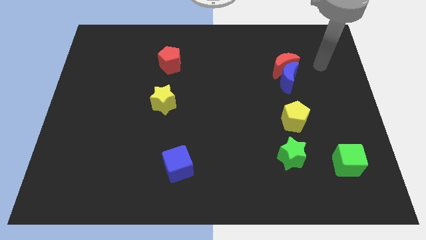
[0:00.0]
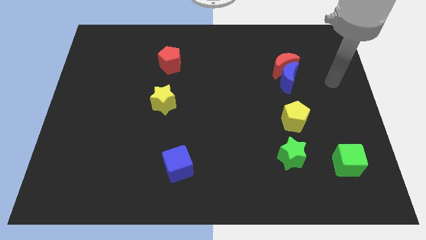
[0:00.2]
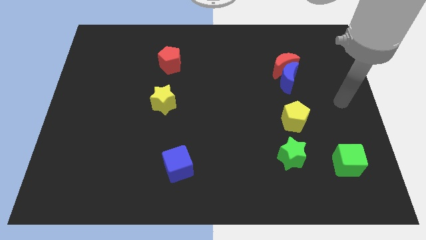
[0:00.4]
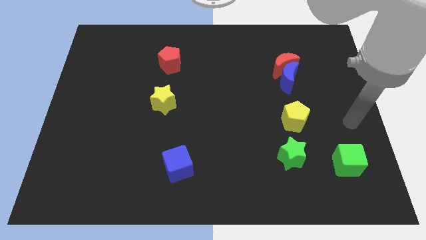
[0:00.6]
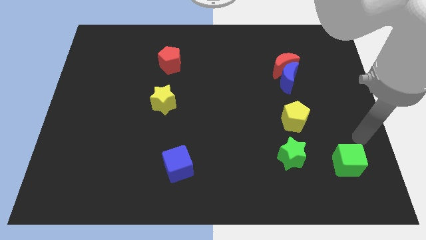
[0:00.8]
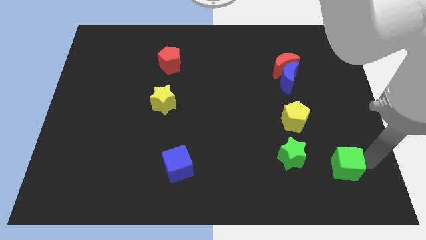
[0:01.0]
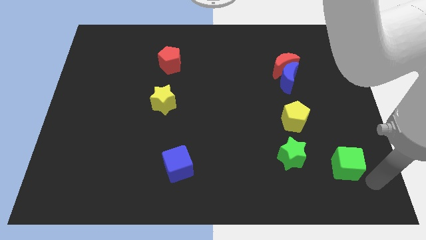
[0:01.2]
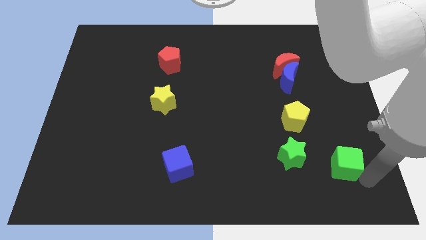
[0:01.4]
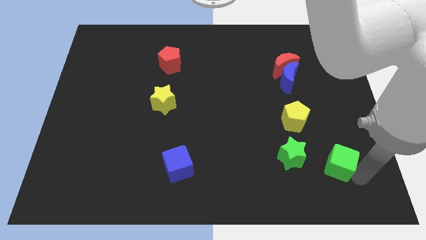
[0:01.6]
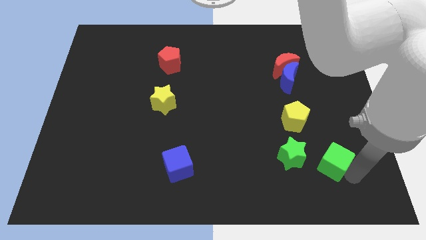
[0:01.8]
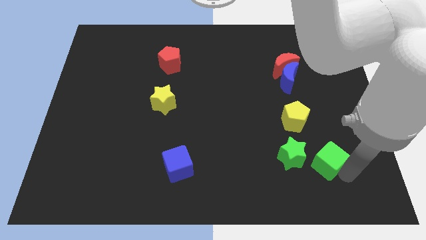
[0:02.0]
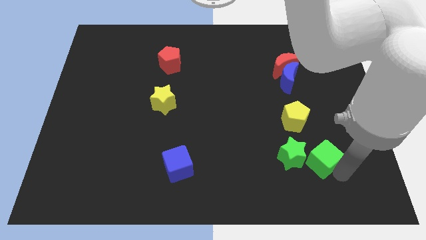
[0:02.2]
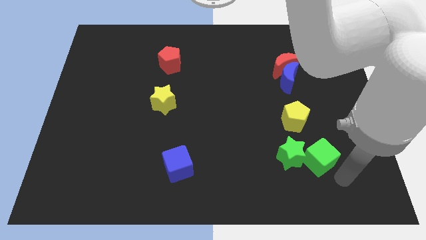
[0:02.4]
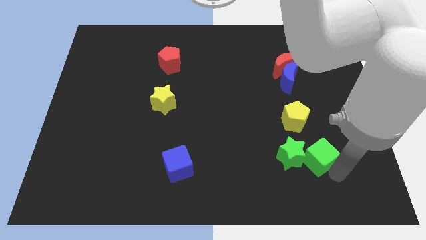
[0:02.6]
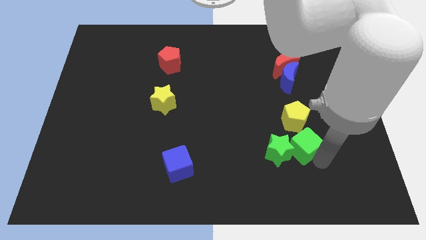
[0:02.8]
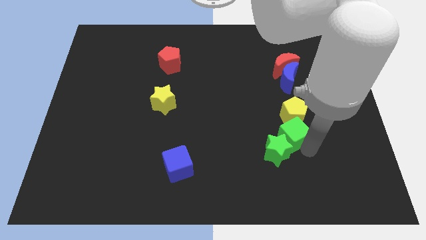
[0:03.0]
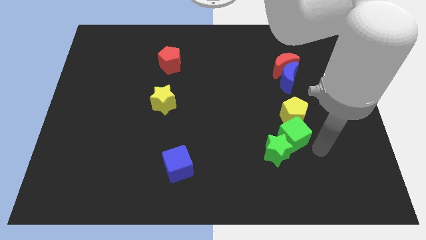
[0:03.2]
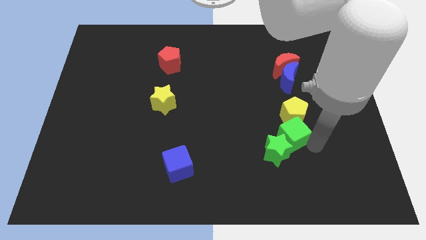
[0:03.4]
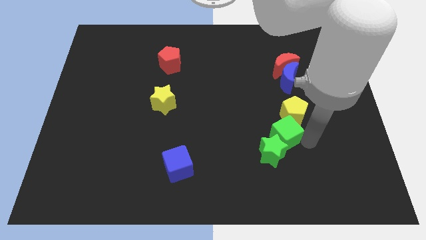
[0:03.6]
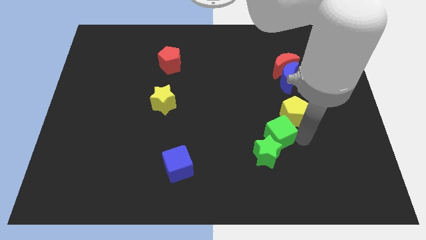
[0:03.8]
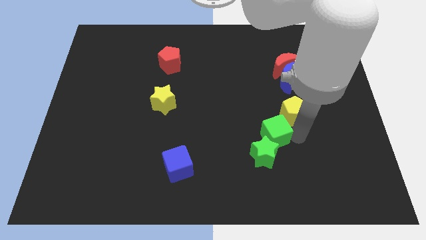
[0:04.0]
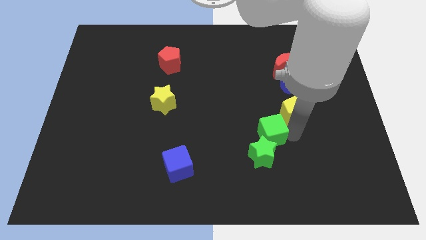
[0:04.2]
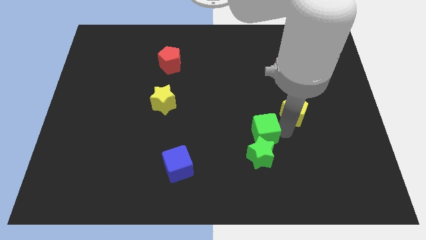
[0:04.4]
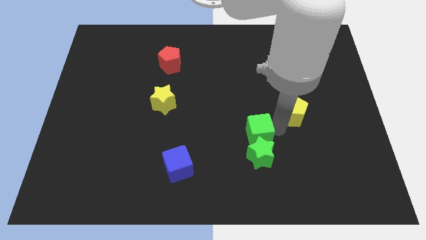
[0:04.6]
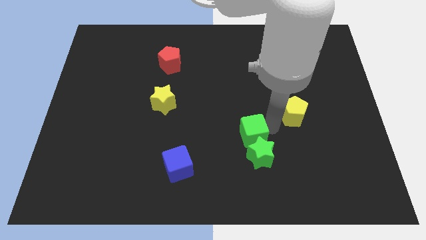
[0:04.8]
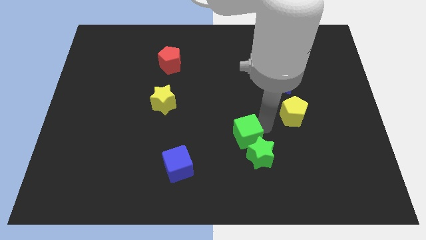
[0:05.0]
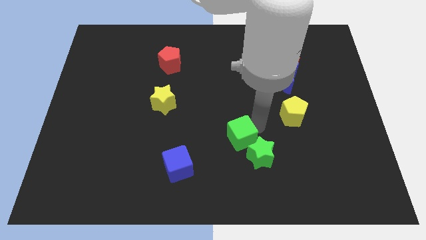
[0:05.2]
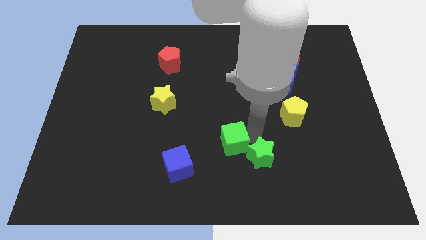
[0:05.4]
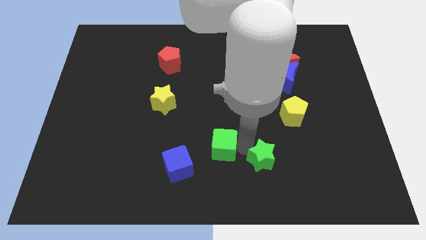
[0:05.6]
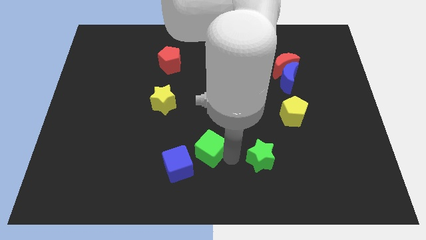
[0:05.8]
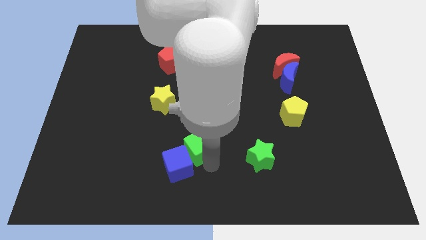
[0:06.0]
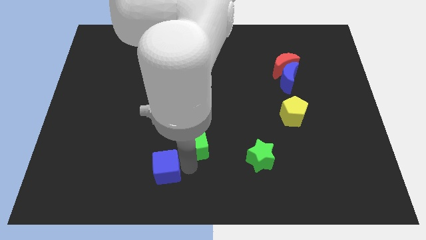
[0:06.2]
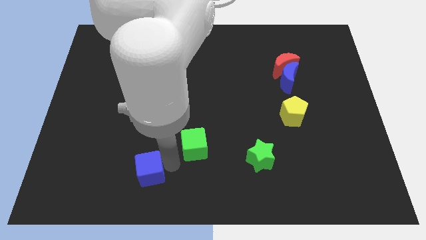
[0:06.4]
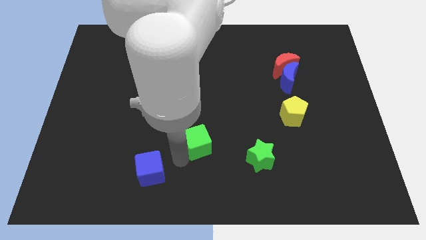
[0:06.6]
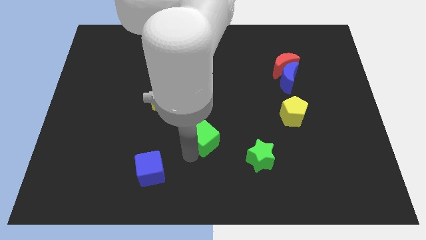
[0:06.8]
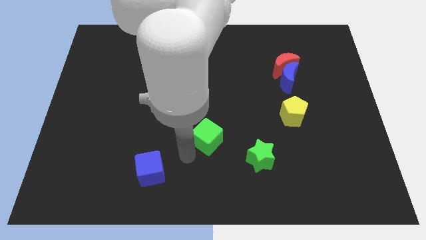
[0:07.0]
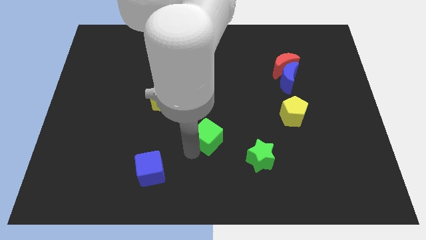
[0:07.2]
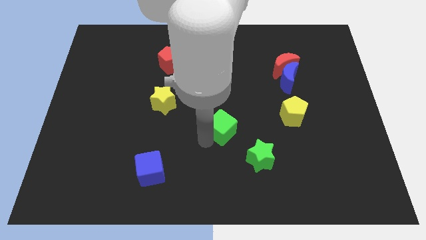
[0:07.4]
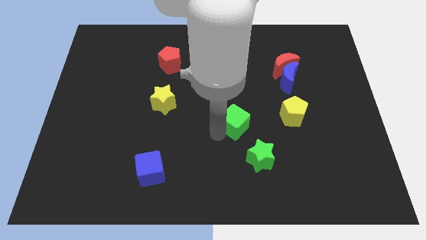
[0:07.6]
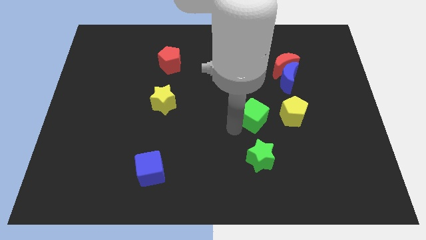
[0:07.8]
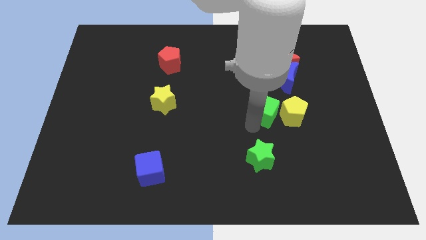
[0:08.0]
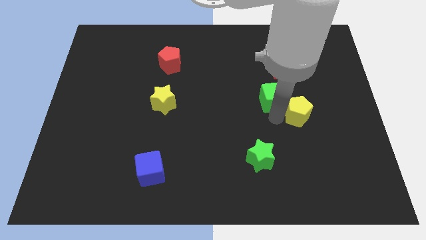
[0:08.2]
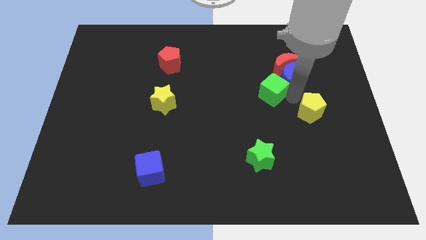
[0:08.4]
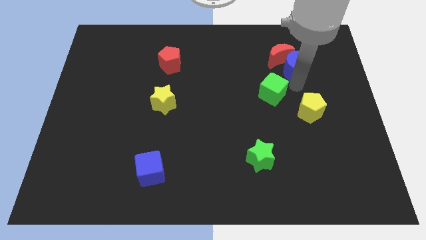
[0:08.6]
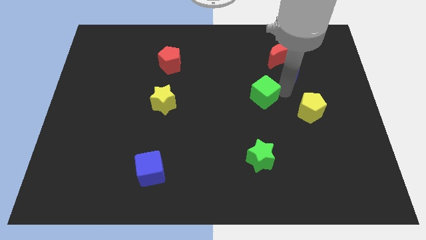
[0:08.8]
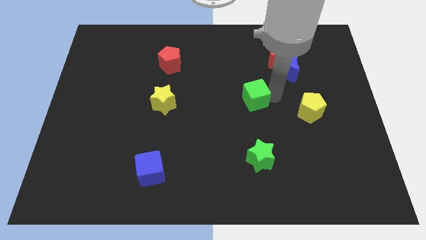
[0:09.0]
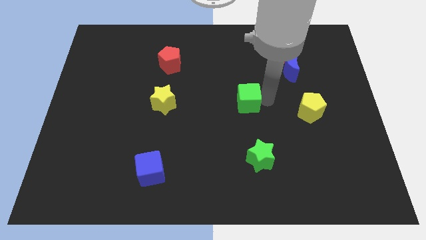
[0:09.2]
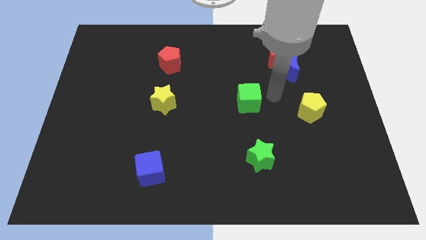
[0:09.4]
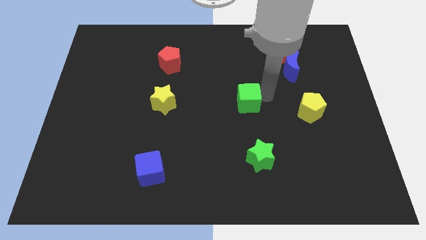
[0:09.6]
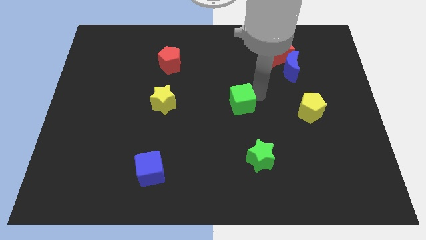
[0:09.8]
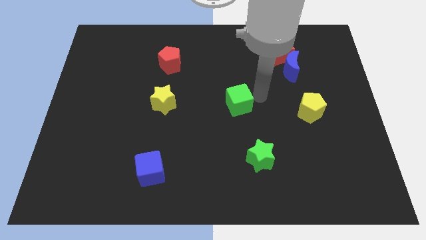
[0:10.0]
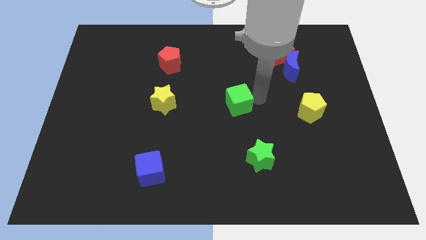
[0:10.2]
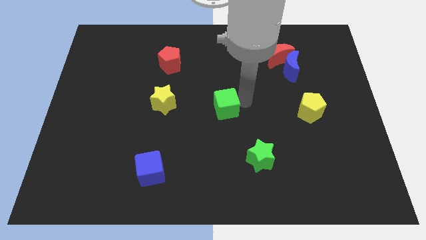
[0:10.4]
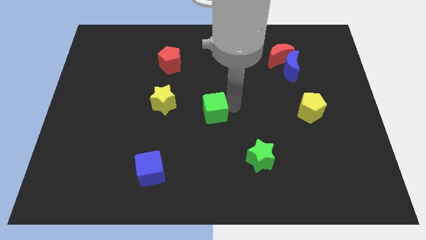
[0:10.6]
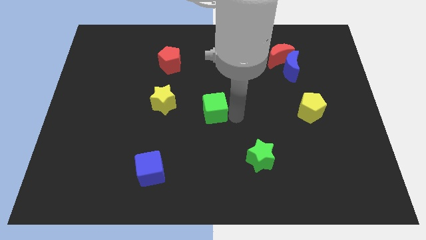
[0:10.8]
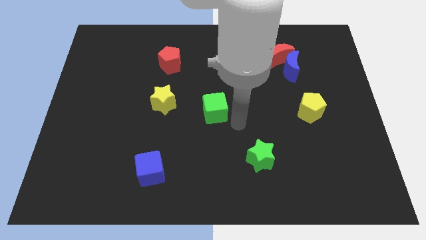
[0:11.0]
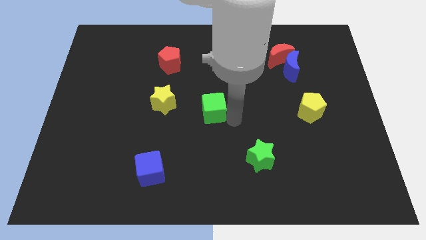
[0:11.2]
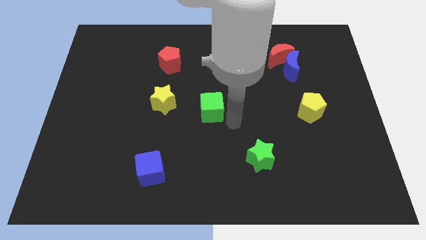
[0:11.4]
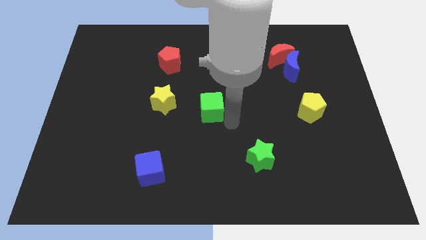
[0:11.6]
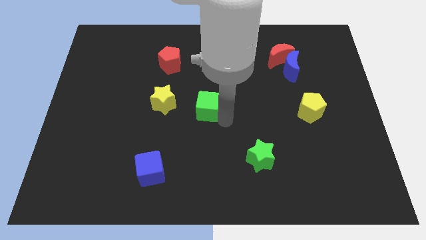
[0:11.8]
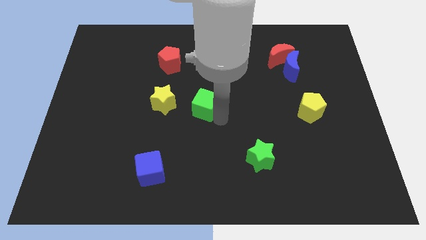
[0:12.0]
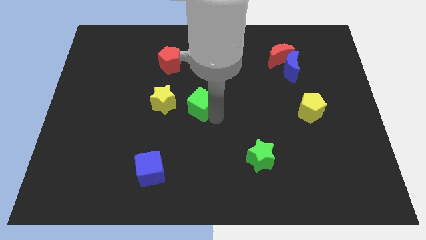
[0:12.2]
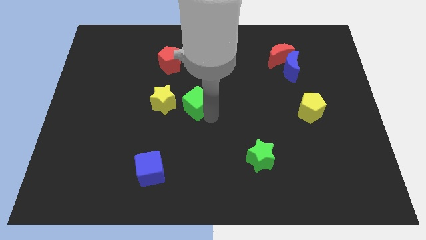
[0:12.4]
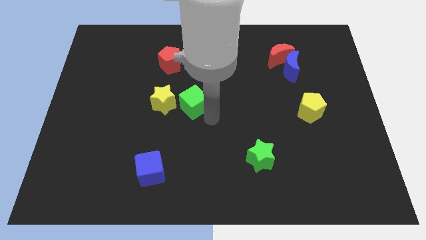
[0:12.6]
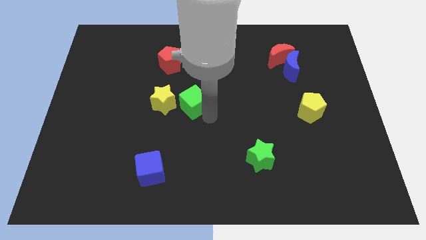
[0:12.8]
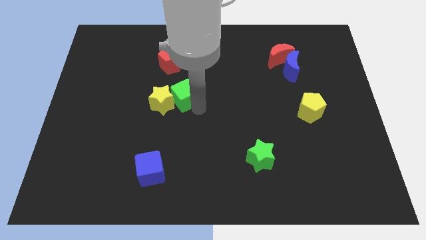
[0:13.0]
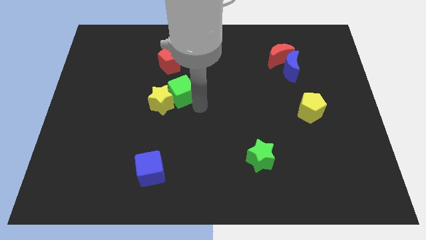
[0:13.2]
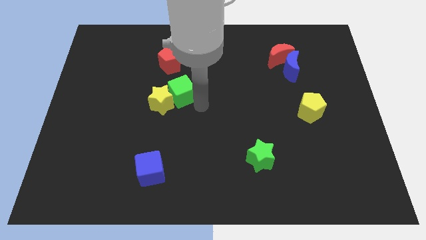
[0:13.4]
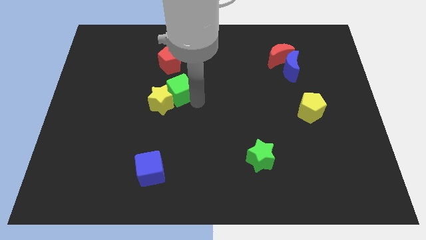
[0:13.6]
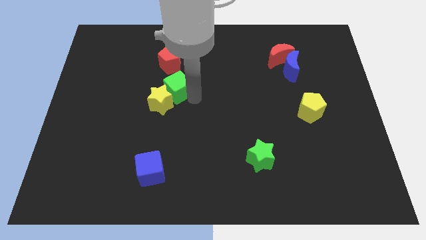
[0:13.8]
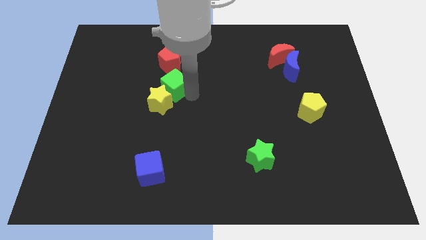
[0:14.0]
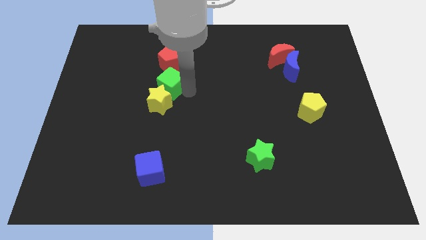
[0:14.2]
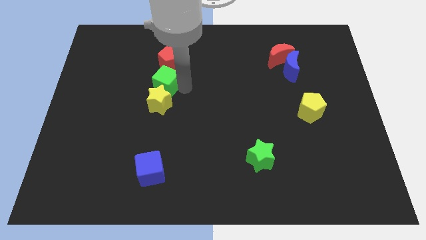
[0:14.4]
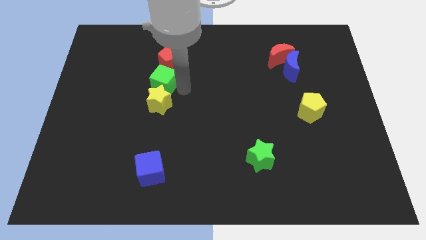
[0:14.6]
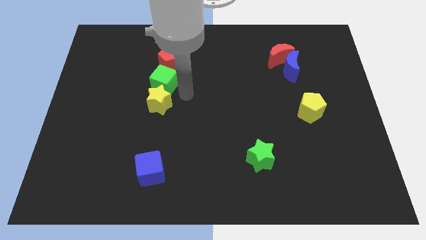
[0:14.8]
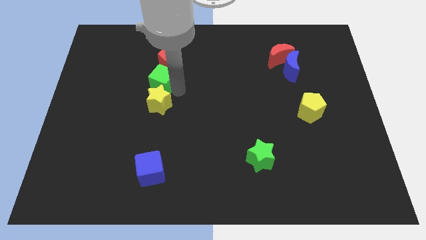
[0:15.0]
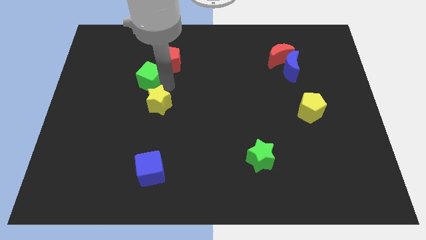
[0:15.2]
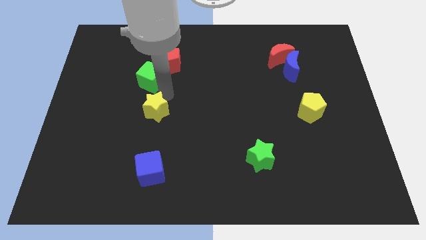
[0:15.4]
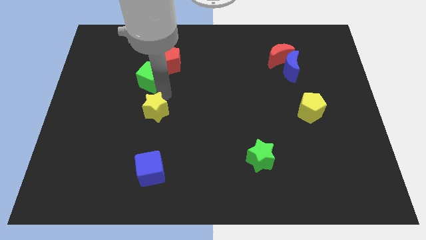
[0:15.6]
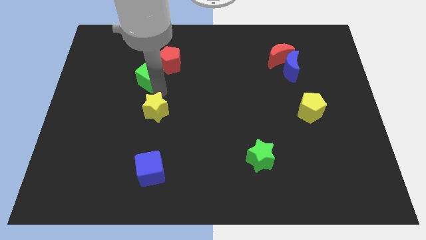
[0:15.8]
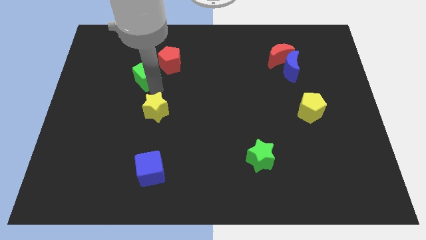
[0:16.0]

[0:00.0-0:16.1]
move the green cube left of the red pentagon
